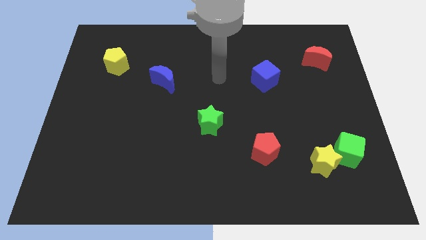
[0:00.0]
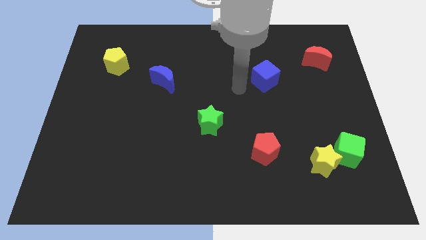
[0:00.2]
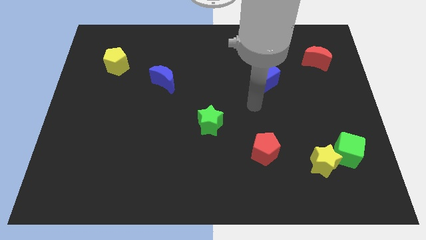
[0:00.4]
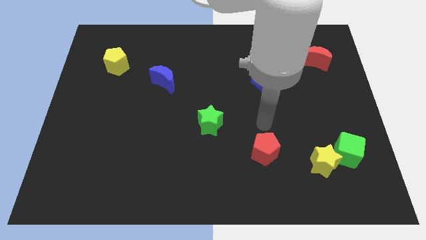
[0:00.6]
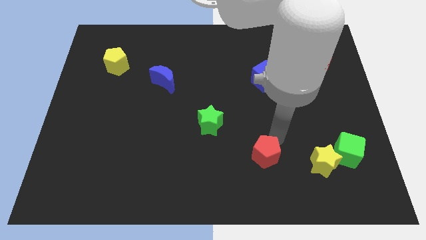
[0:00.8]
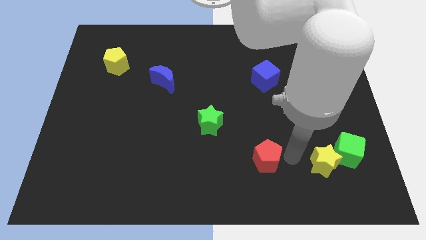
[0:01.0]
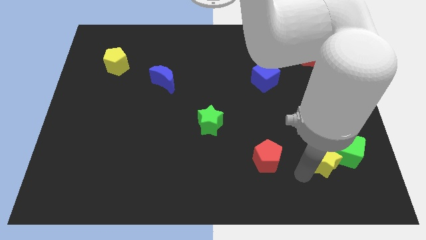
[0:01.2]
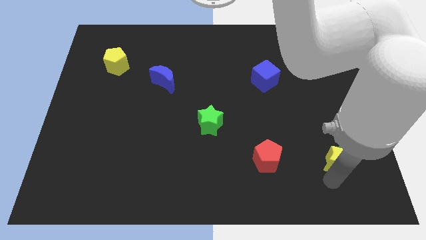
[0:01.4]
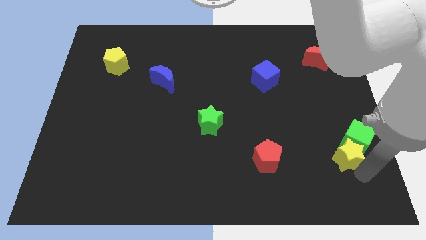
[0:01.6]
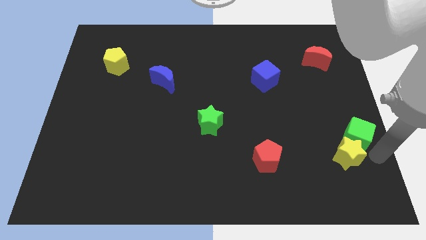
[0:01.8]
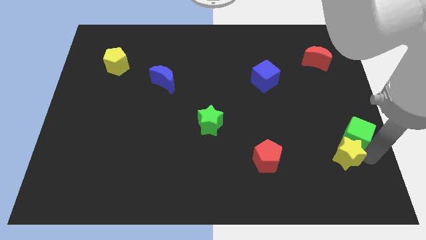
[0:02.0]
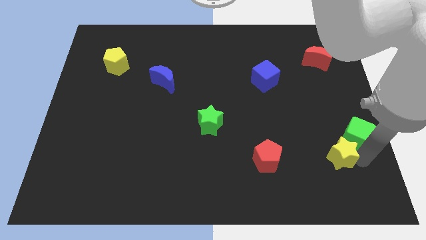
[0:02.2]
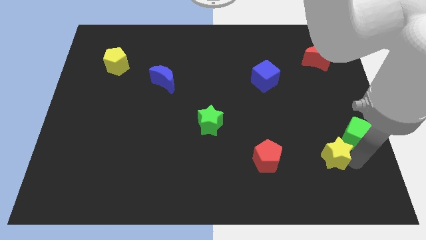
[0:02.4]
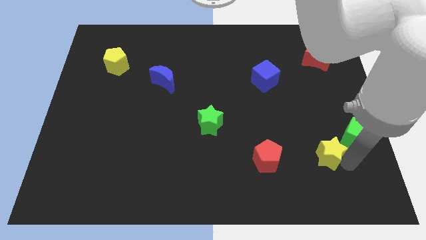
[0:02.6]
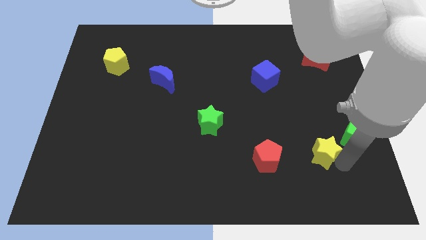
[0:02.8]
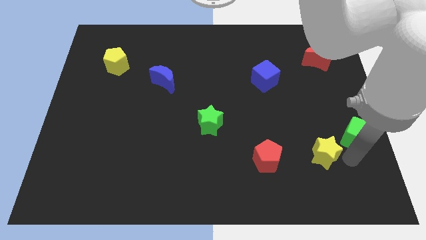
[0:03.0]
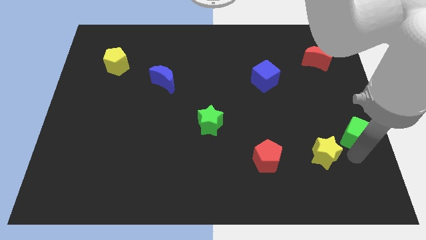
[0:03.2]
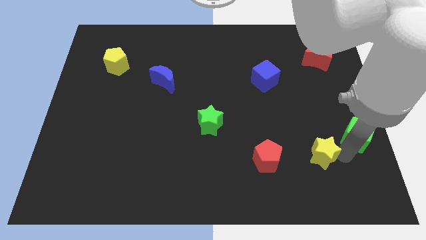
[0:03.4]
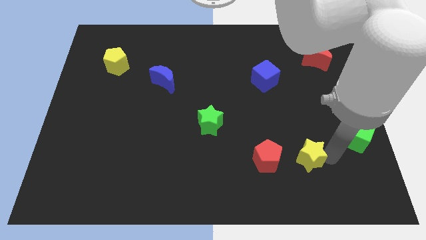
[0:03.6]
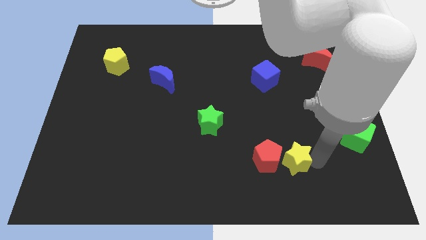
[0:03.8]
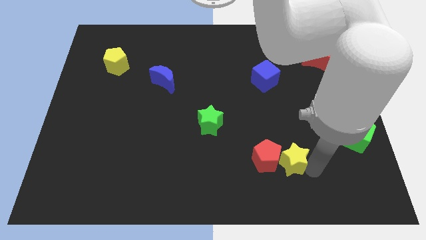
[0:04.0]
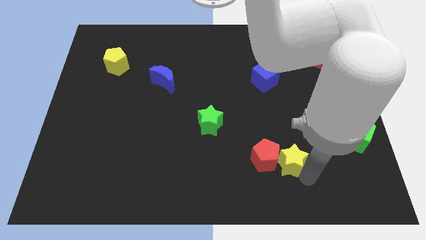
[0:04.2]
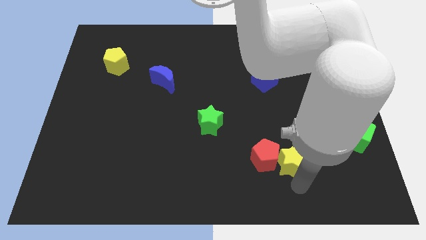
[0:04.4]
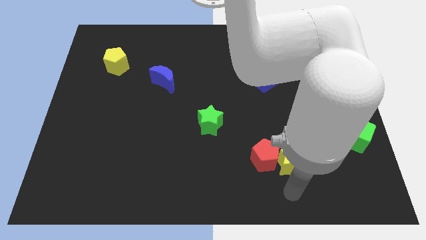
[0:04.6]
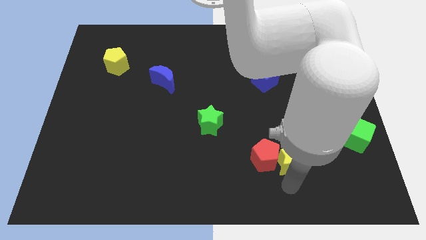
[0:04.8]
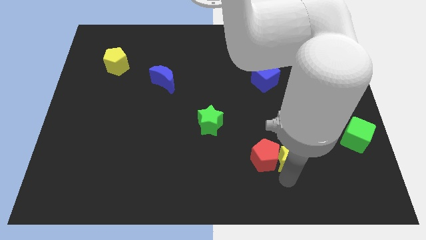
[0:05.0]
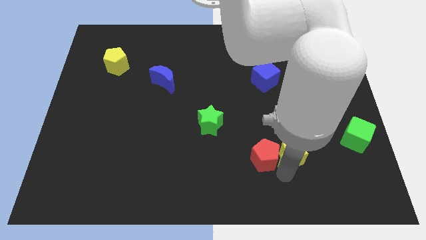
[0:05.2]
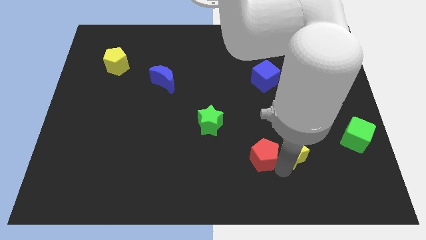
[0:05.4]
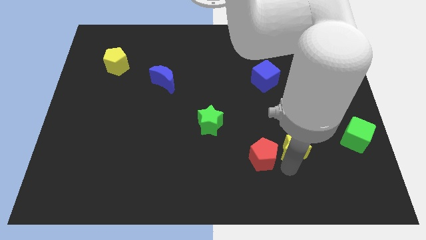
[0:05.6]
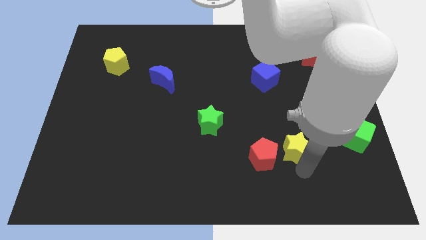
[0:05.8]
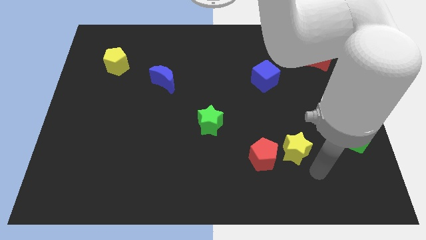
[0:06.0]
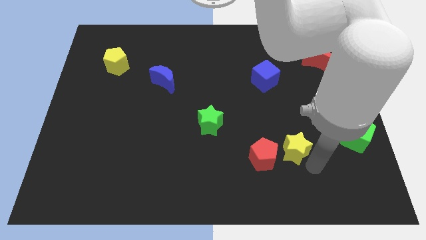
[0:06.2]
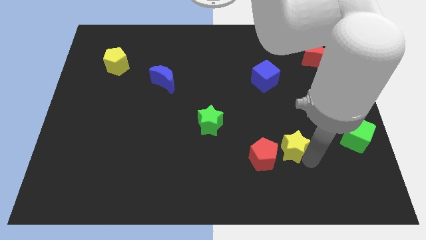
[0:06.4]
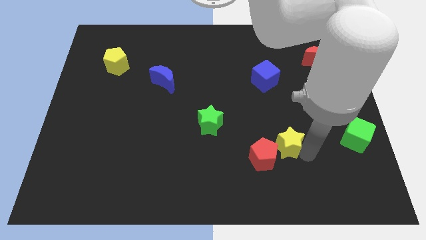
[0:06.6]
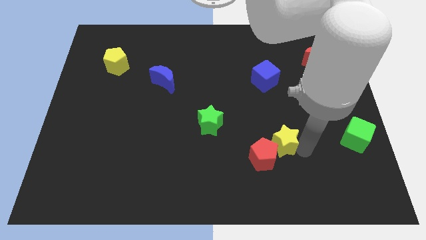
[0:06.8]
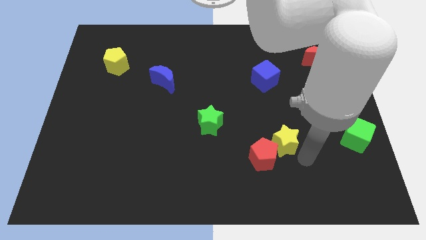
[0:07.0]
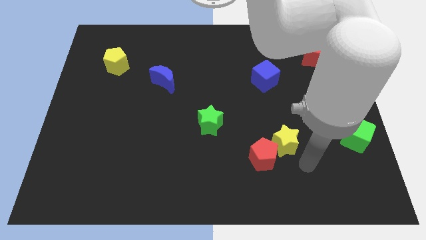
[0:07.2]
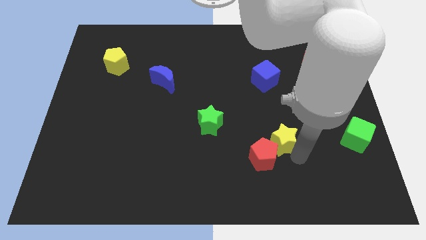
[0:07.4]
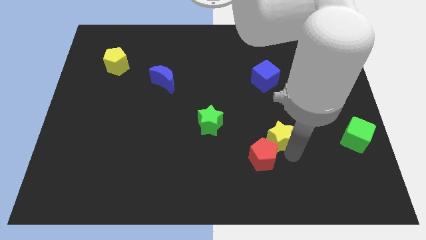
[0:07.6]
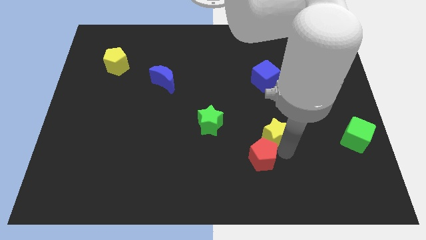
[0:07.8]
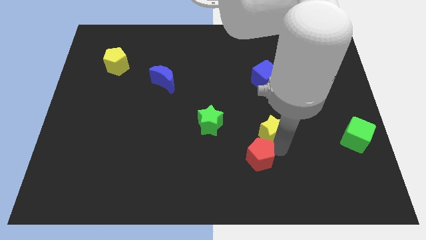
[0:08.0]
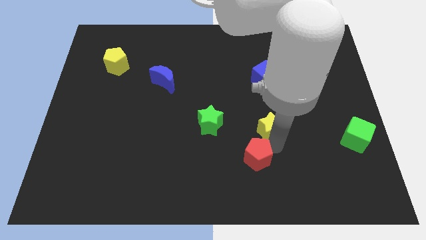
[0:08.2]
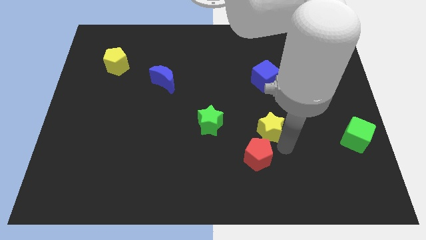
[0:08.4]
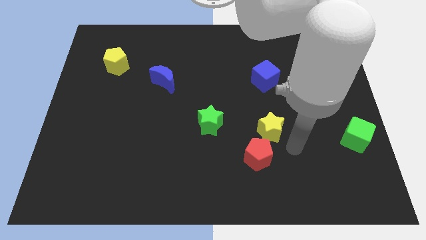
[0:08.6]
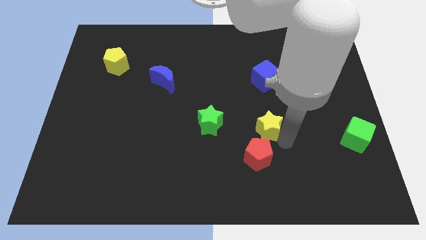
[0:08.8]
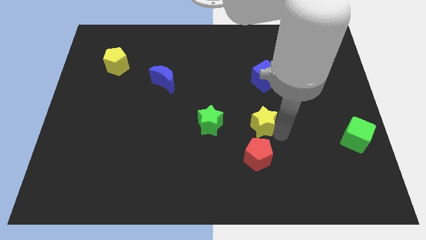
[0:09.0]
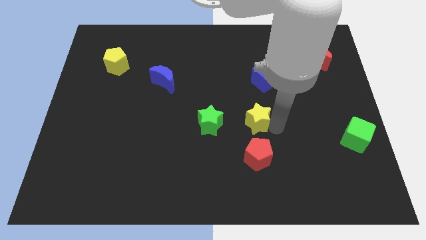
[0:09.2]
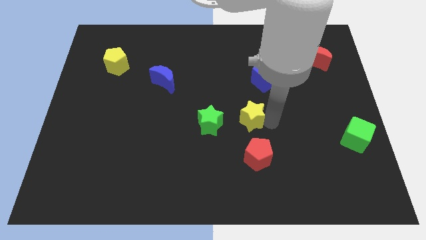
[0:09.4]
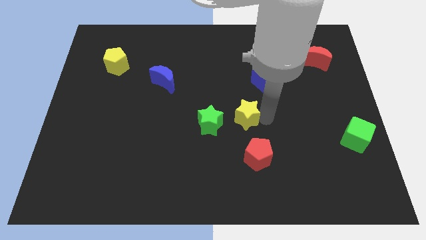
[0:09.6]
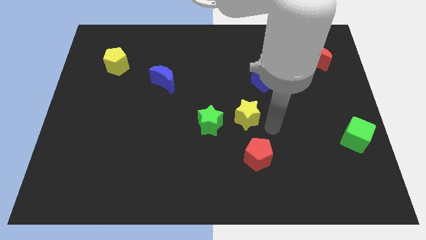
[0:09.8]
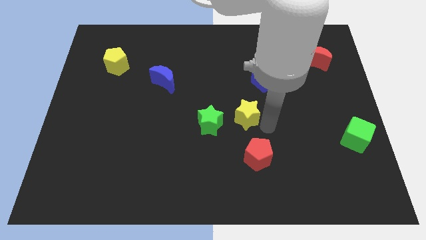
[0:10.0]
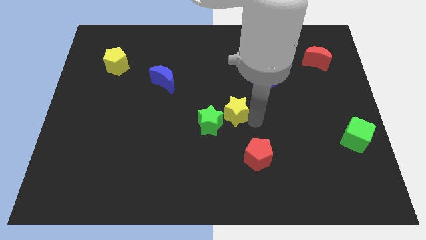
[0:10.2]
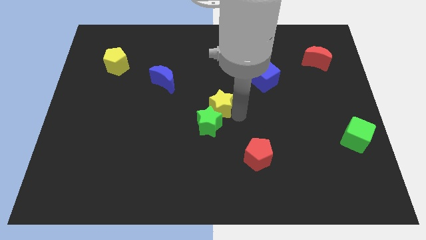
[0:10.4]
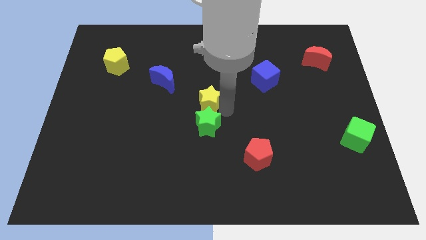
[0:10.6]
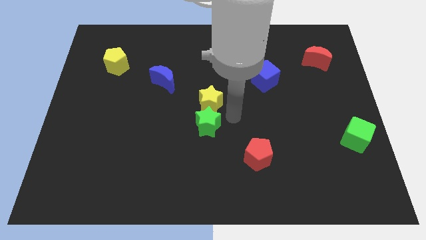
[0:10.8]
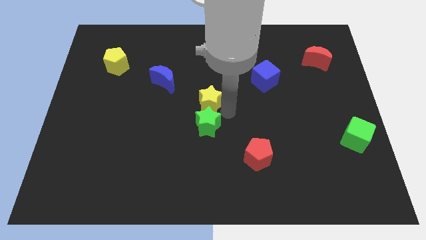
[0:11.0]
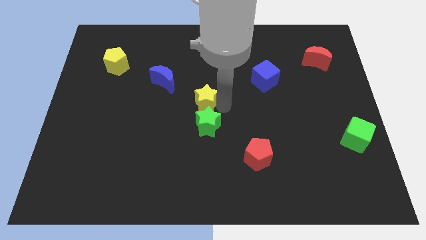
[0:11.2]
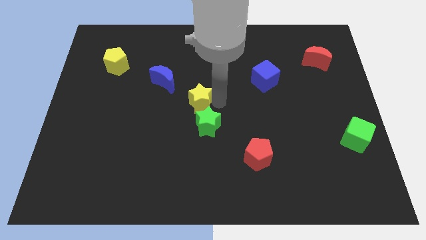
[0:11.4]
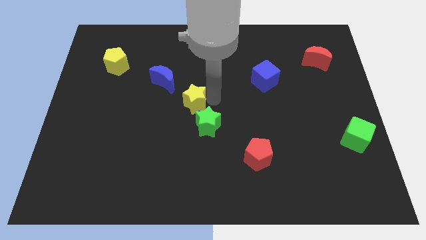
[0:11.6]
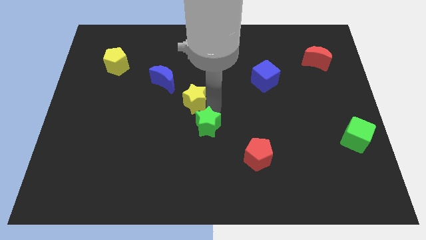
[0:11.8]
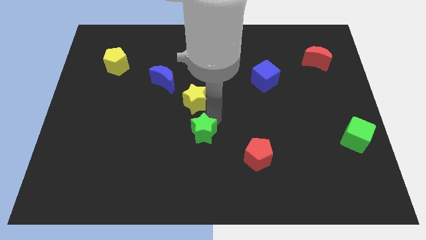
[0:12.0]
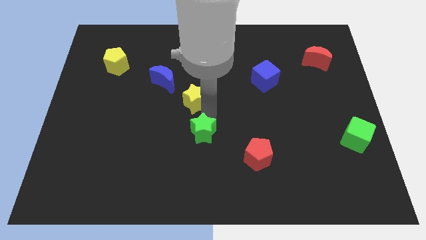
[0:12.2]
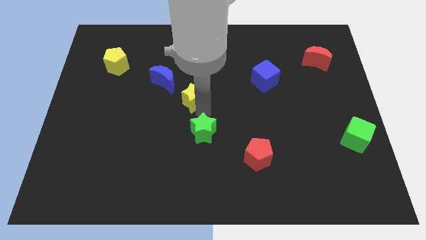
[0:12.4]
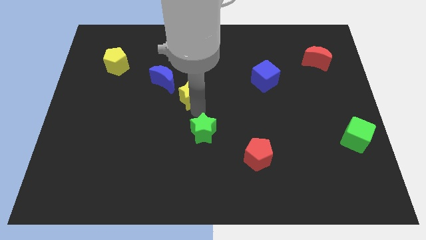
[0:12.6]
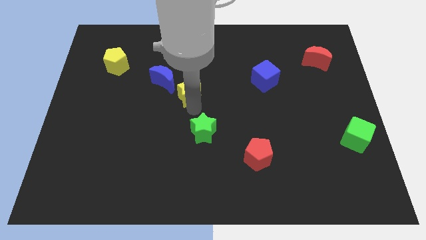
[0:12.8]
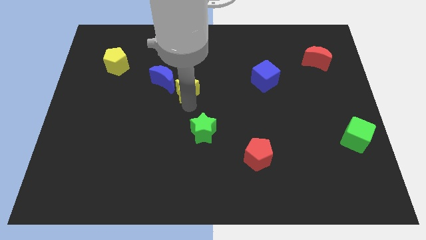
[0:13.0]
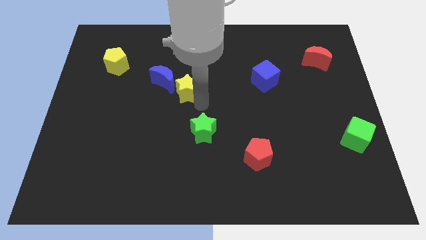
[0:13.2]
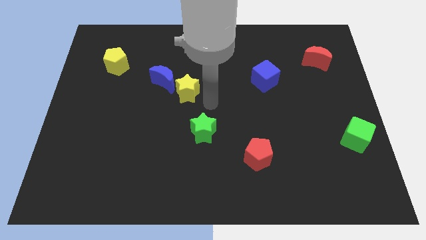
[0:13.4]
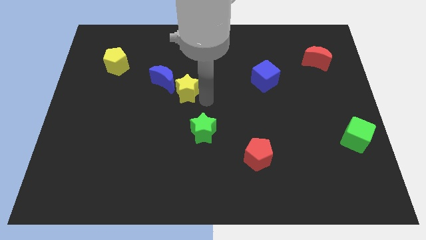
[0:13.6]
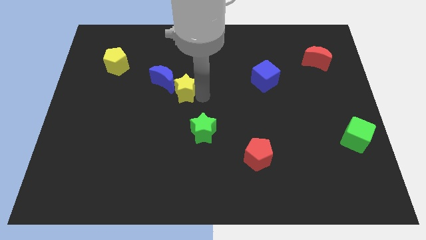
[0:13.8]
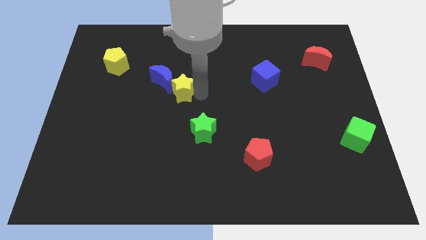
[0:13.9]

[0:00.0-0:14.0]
move the yellow star close to the blue moon
